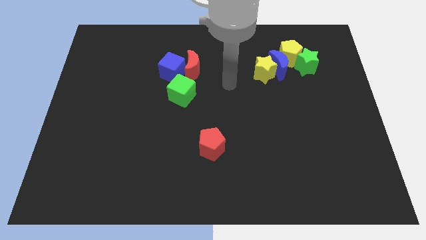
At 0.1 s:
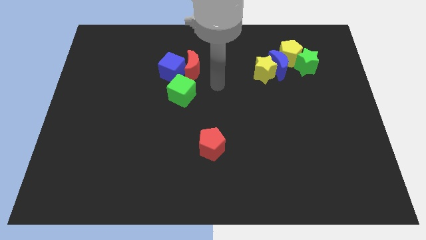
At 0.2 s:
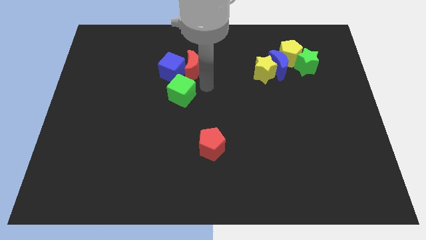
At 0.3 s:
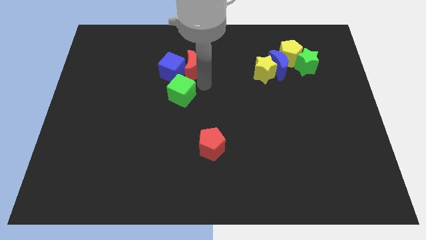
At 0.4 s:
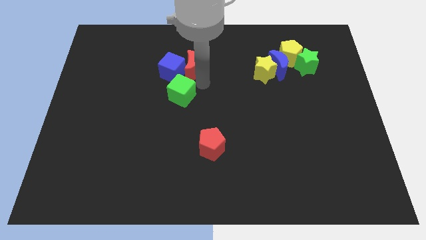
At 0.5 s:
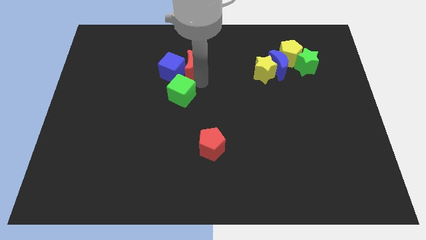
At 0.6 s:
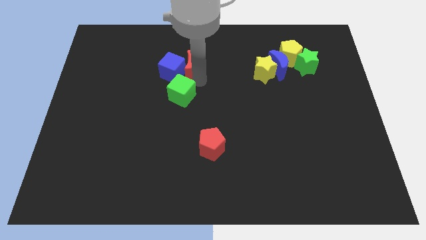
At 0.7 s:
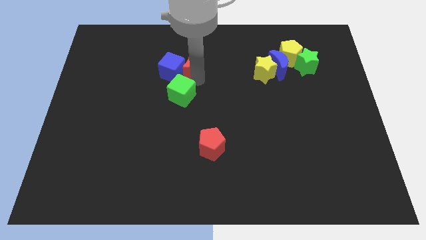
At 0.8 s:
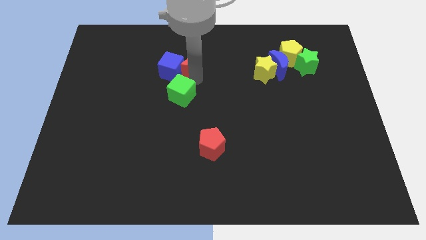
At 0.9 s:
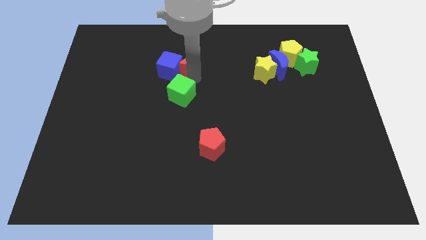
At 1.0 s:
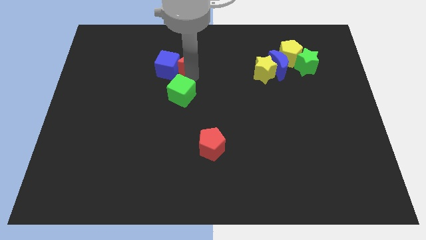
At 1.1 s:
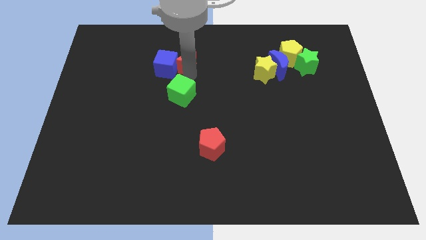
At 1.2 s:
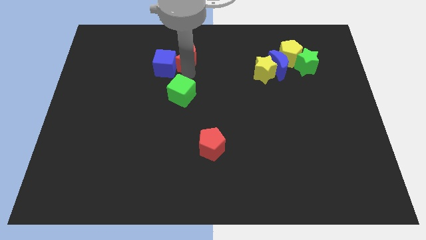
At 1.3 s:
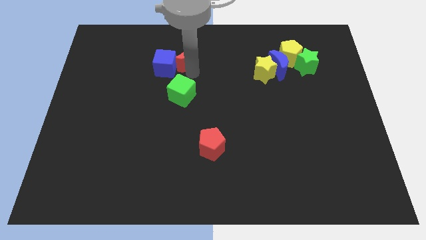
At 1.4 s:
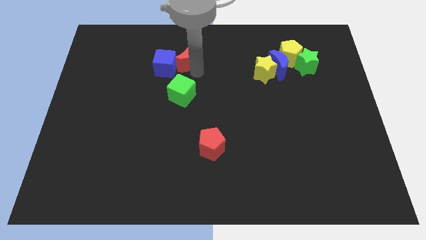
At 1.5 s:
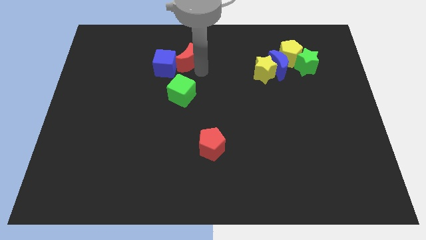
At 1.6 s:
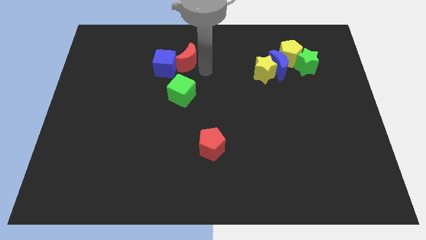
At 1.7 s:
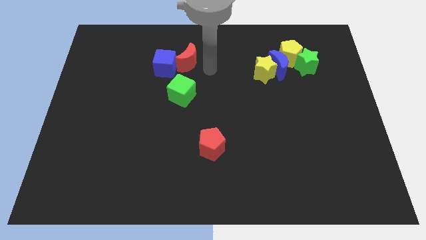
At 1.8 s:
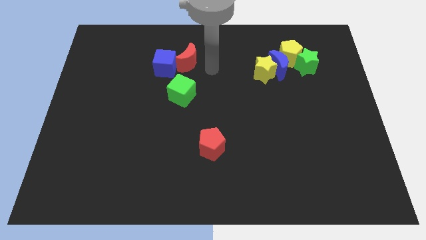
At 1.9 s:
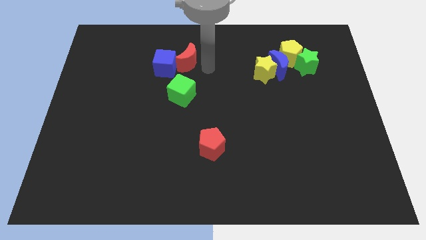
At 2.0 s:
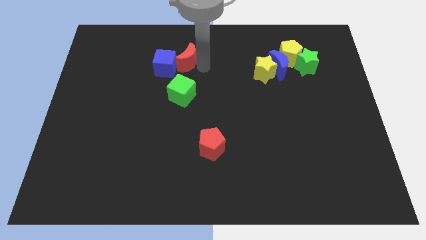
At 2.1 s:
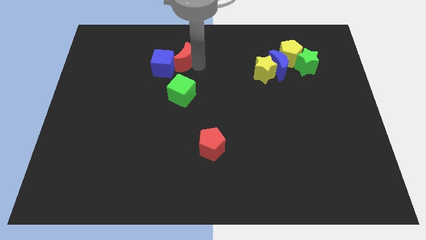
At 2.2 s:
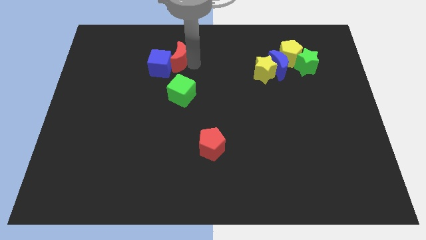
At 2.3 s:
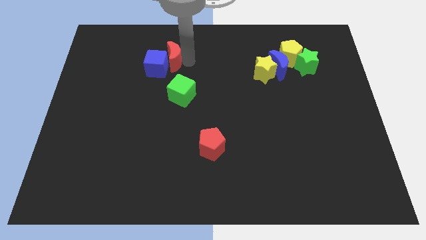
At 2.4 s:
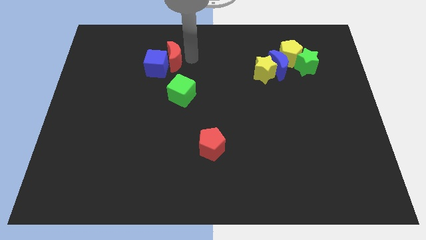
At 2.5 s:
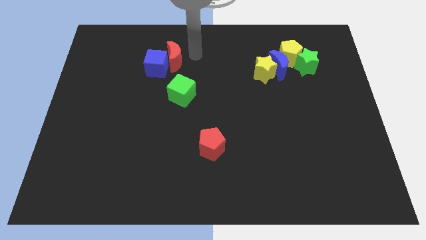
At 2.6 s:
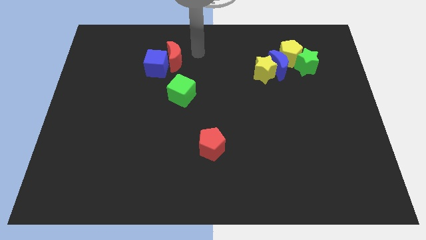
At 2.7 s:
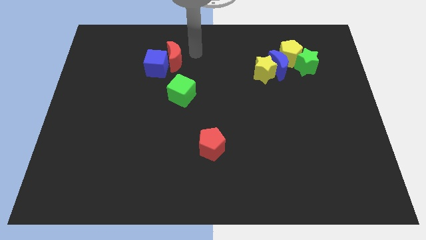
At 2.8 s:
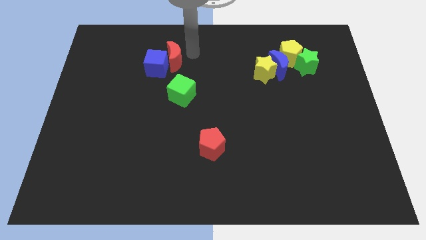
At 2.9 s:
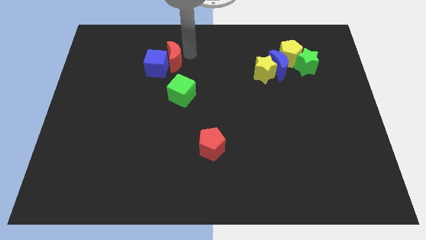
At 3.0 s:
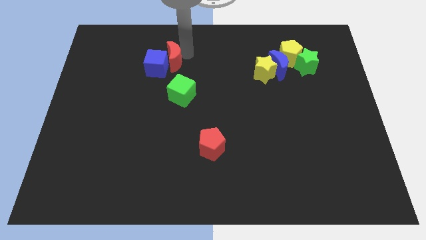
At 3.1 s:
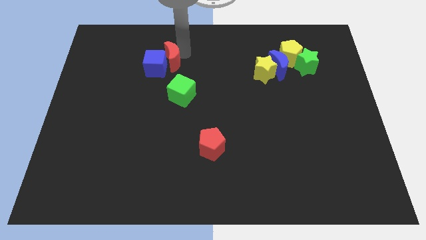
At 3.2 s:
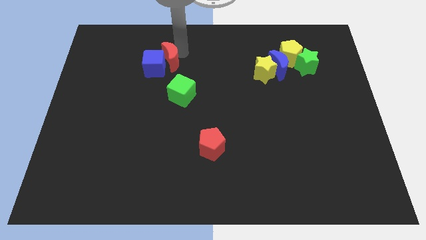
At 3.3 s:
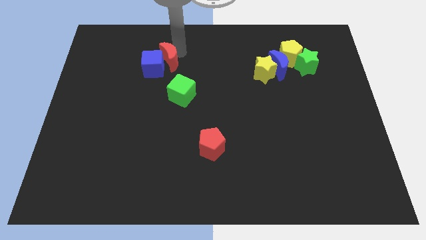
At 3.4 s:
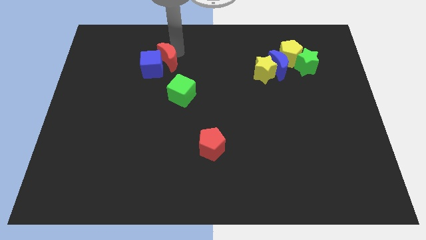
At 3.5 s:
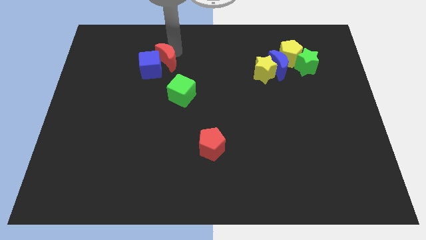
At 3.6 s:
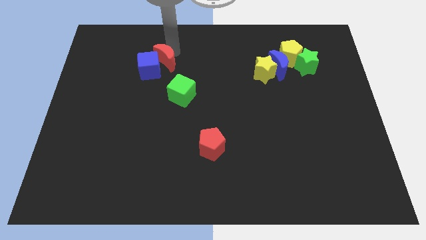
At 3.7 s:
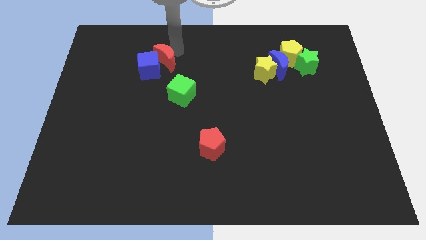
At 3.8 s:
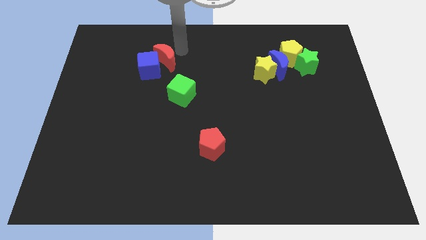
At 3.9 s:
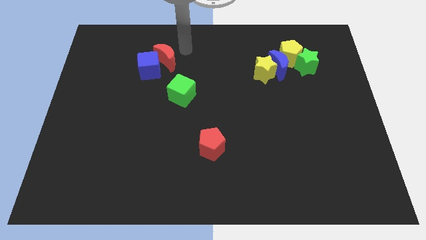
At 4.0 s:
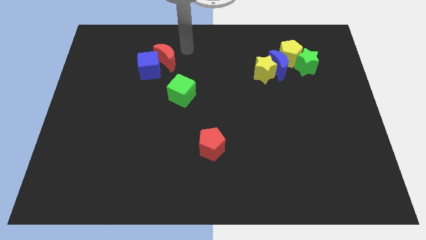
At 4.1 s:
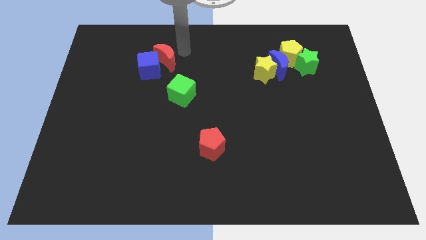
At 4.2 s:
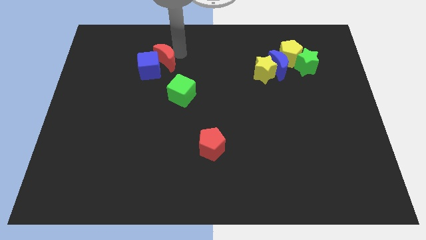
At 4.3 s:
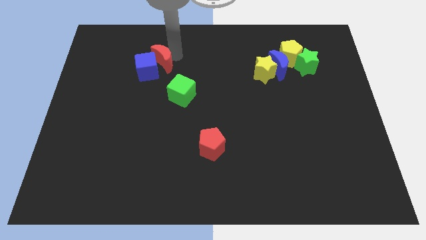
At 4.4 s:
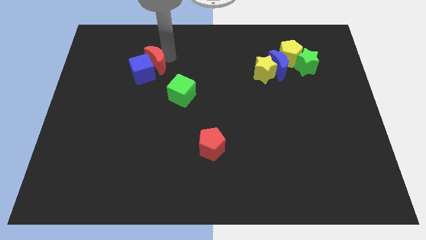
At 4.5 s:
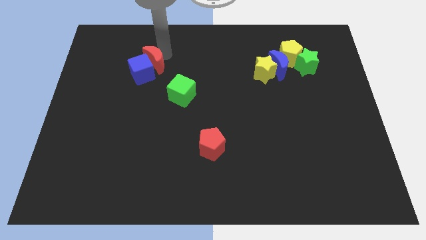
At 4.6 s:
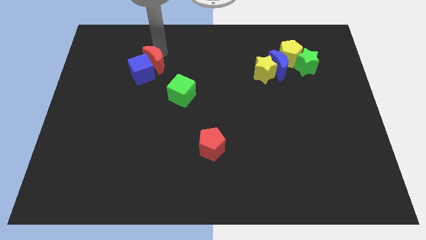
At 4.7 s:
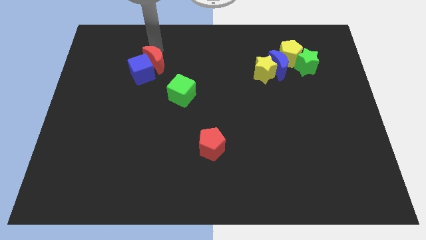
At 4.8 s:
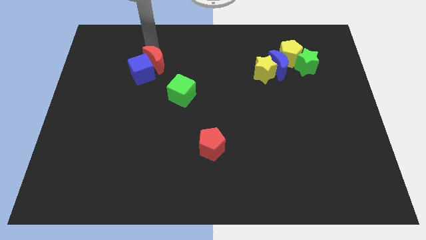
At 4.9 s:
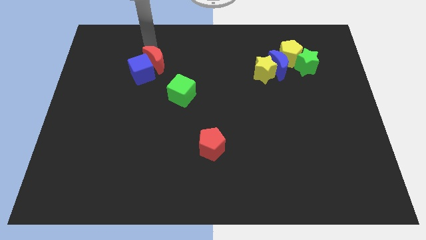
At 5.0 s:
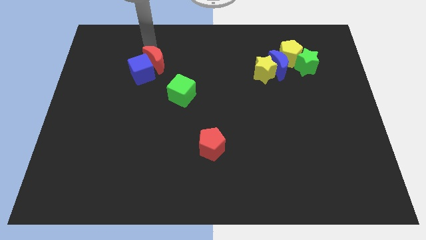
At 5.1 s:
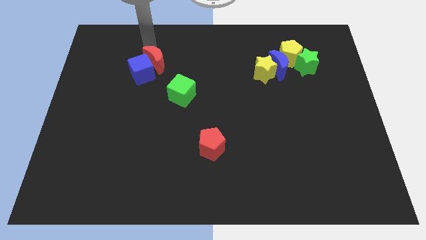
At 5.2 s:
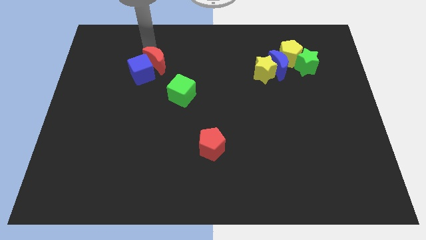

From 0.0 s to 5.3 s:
slide the red moon diagonally up and to the left of the green cube

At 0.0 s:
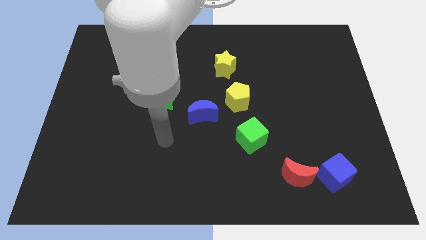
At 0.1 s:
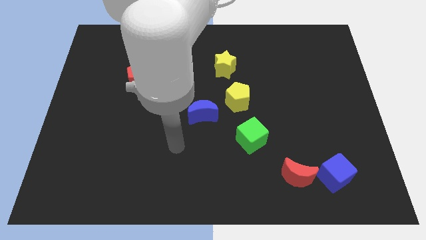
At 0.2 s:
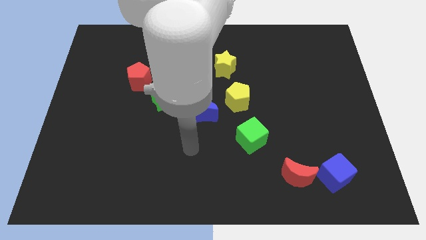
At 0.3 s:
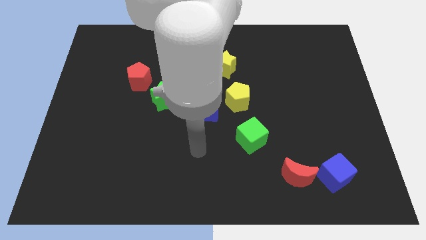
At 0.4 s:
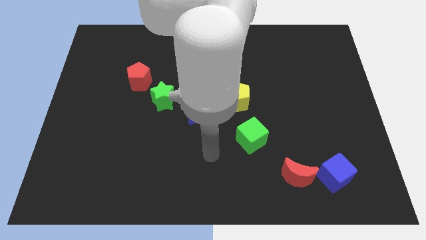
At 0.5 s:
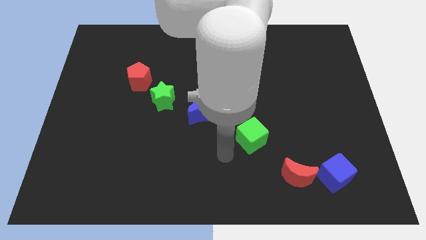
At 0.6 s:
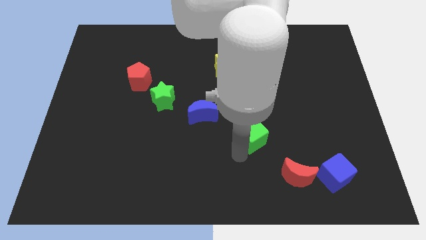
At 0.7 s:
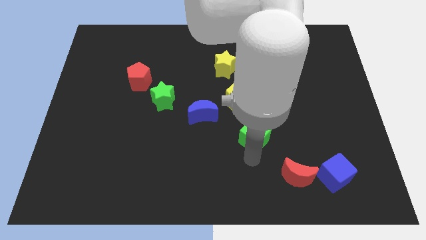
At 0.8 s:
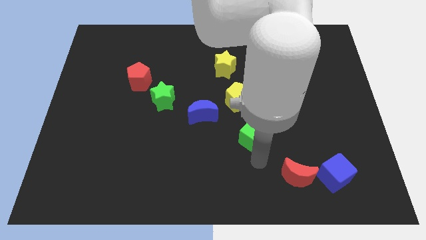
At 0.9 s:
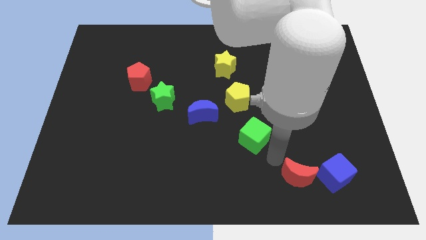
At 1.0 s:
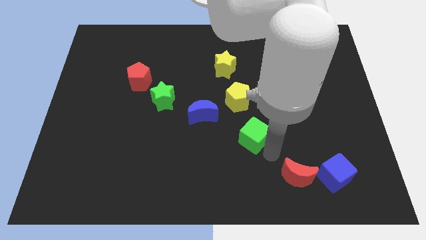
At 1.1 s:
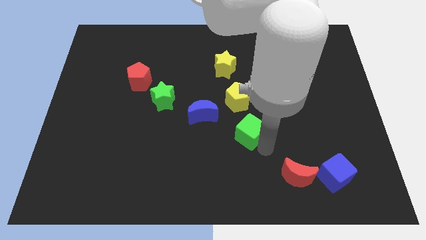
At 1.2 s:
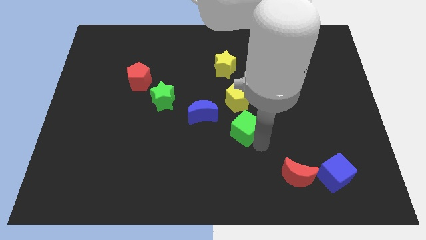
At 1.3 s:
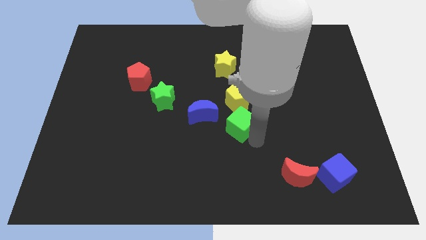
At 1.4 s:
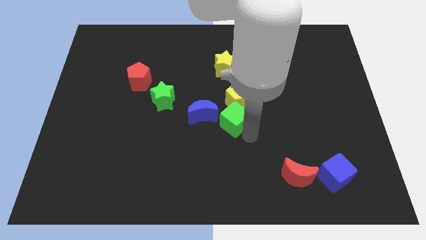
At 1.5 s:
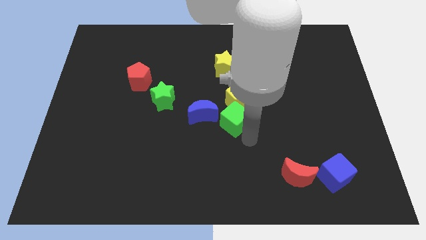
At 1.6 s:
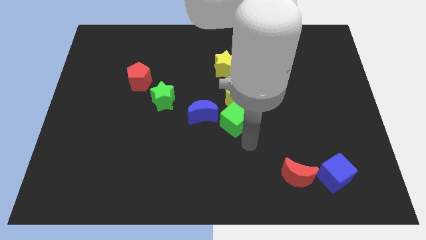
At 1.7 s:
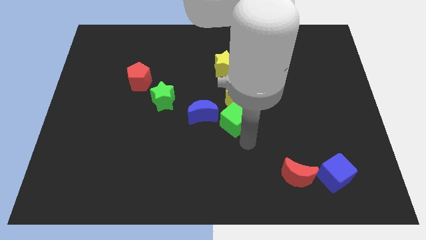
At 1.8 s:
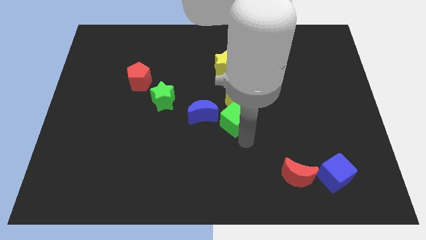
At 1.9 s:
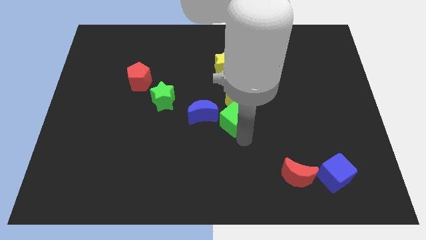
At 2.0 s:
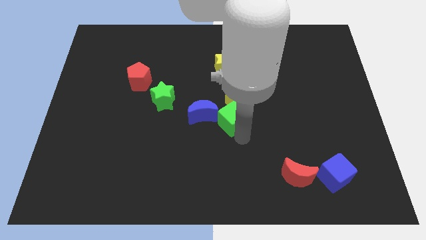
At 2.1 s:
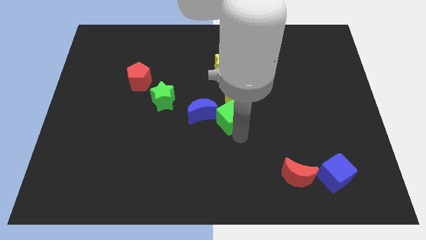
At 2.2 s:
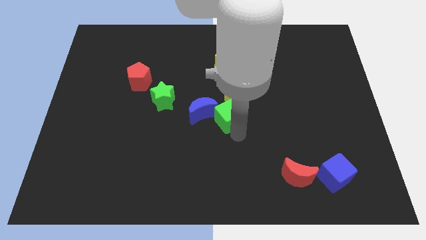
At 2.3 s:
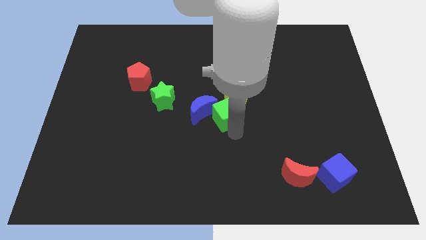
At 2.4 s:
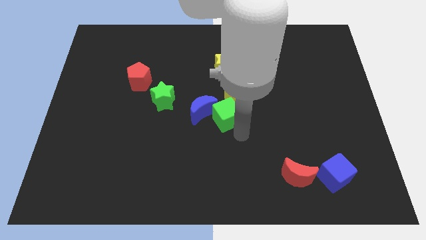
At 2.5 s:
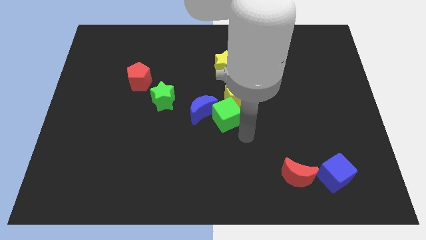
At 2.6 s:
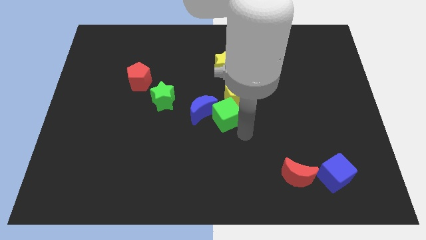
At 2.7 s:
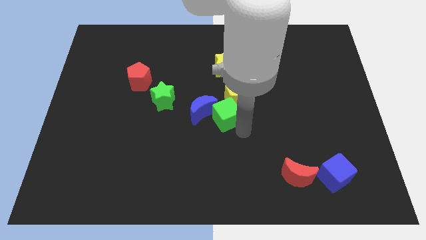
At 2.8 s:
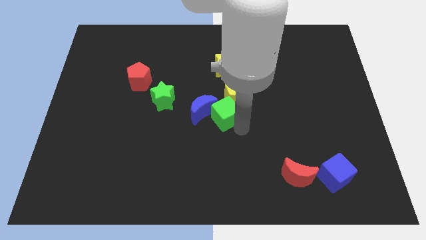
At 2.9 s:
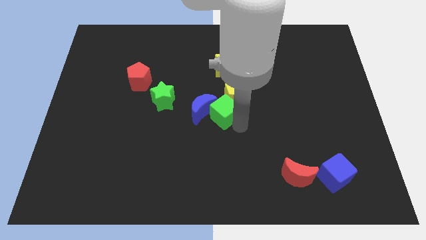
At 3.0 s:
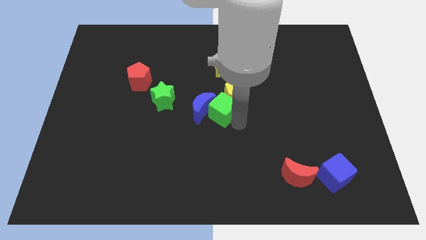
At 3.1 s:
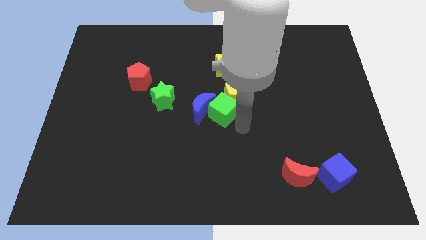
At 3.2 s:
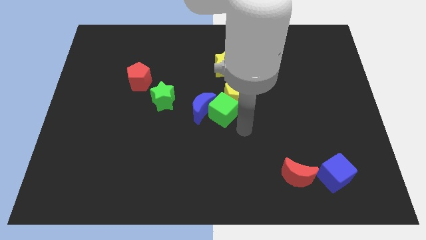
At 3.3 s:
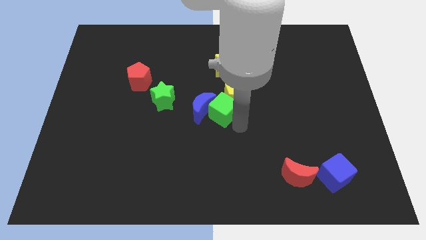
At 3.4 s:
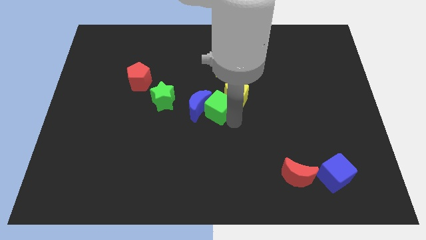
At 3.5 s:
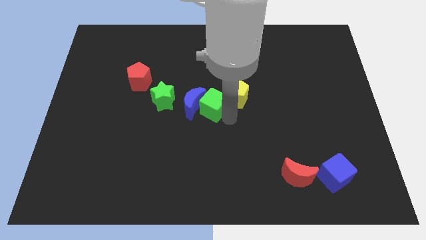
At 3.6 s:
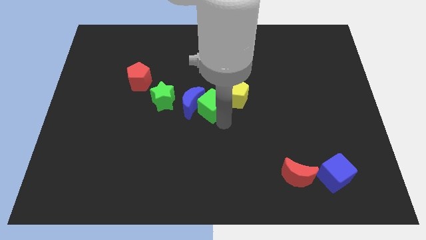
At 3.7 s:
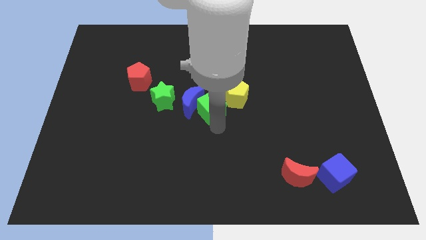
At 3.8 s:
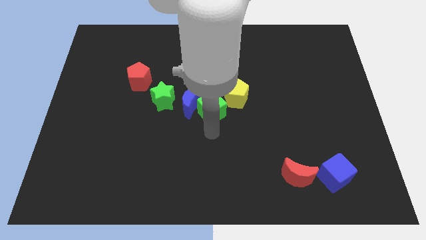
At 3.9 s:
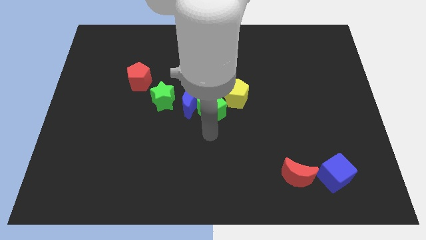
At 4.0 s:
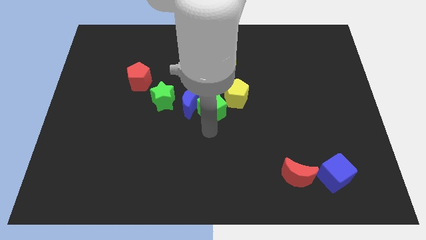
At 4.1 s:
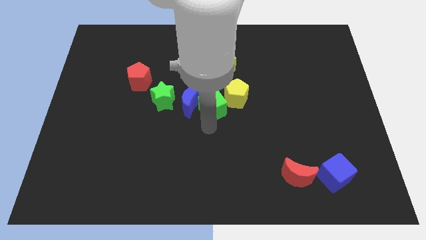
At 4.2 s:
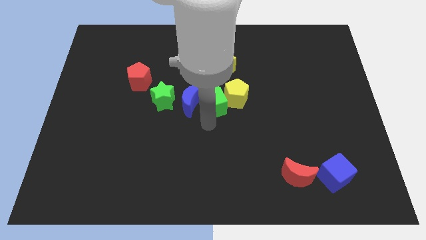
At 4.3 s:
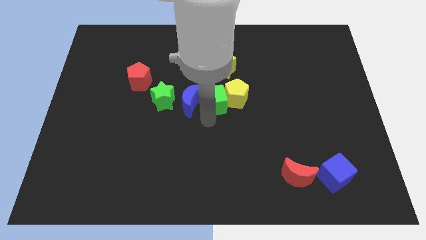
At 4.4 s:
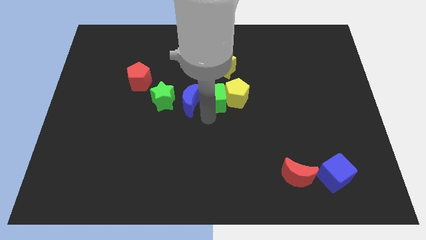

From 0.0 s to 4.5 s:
slide the green cube to the top left side of the yellow pentagon
